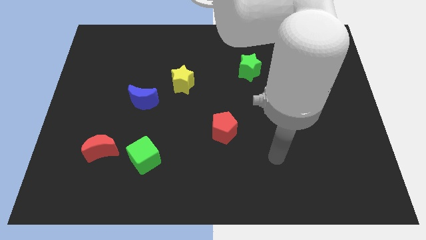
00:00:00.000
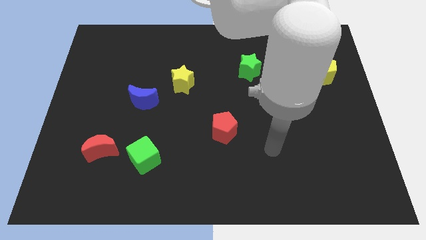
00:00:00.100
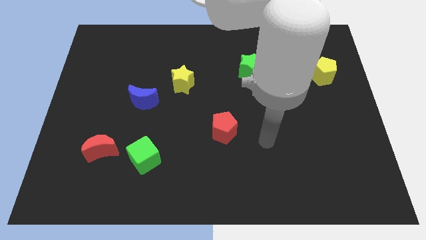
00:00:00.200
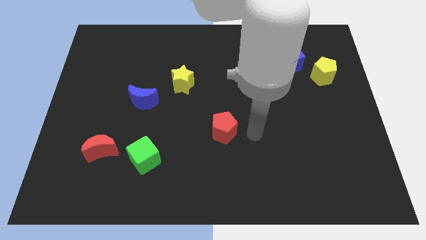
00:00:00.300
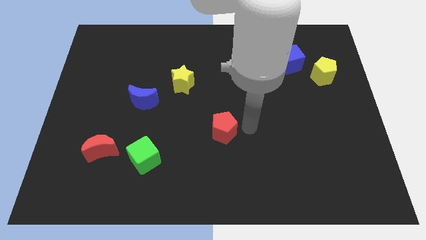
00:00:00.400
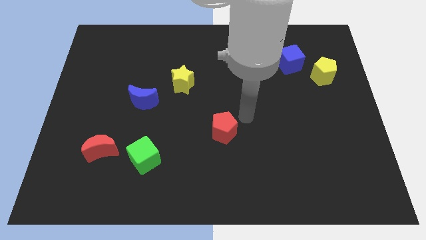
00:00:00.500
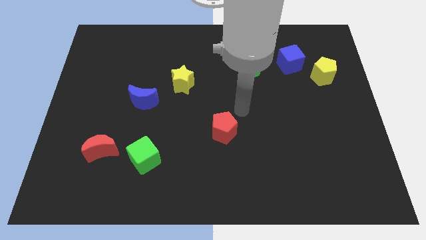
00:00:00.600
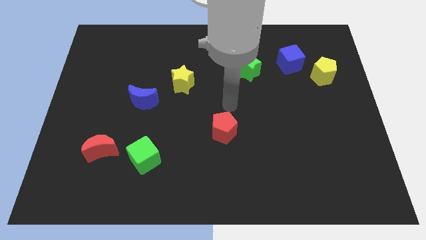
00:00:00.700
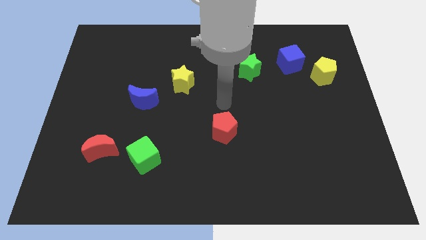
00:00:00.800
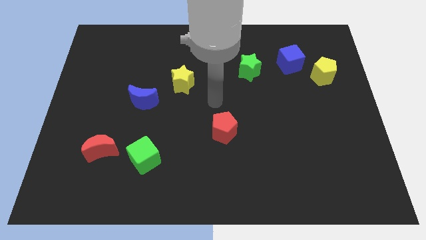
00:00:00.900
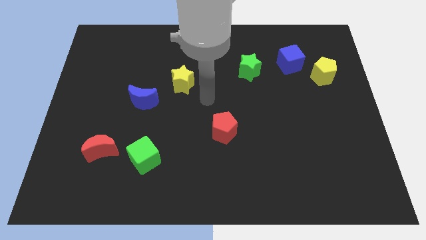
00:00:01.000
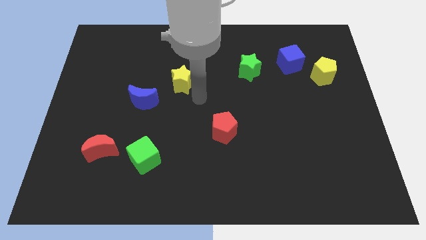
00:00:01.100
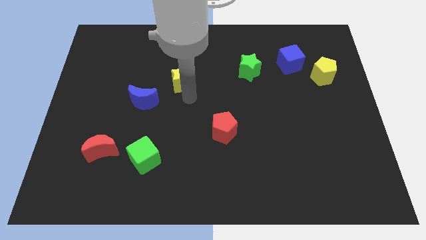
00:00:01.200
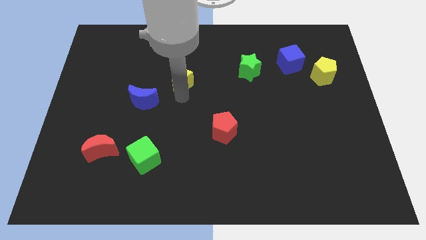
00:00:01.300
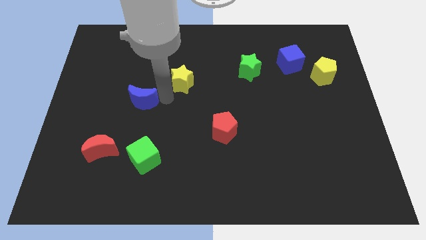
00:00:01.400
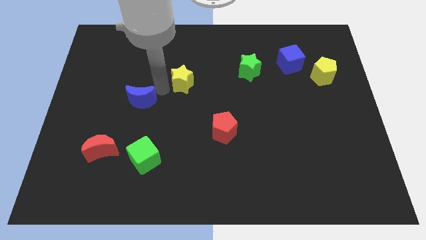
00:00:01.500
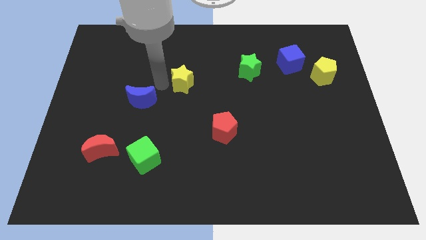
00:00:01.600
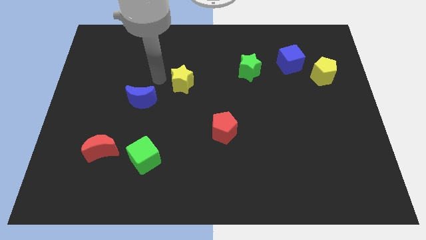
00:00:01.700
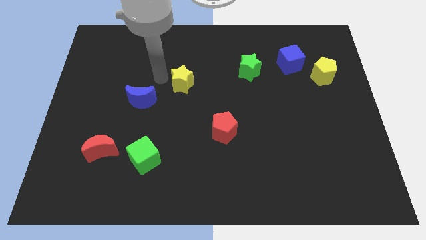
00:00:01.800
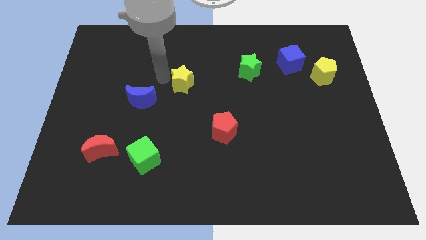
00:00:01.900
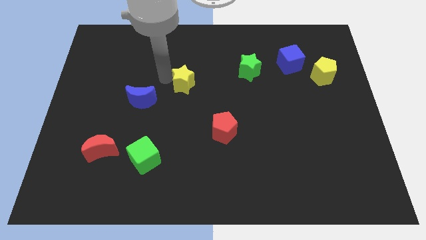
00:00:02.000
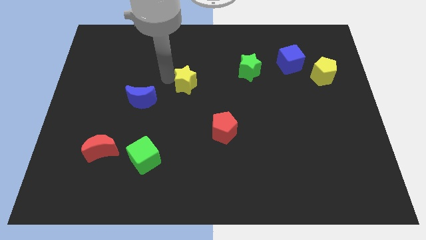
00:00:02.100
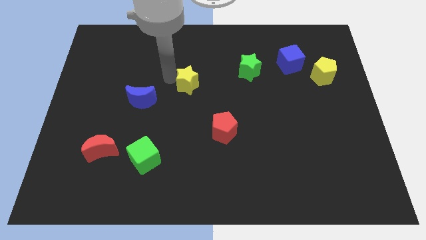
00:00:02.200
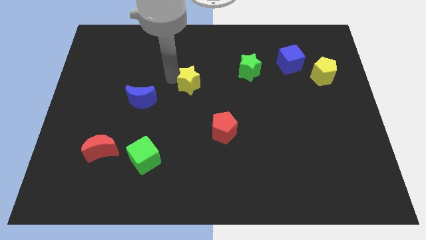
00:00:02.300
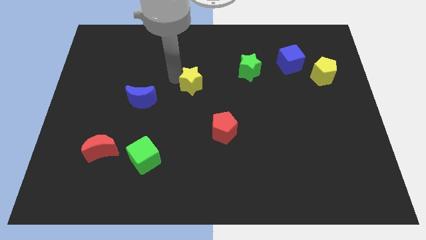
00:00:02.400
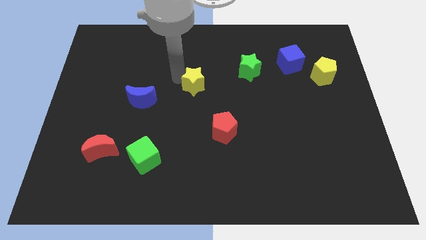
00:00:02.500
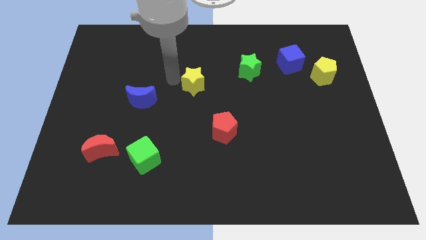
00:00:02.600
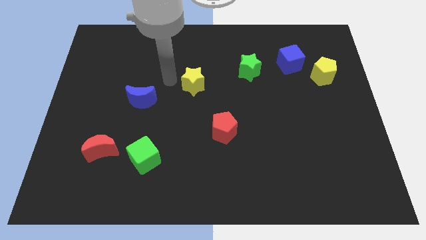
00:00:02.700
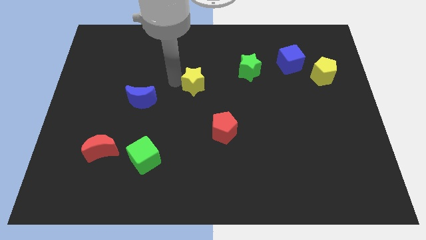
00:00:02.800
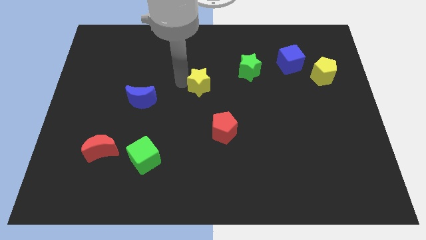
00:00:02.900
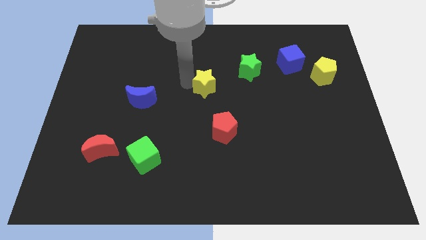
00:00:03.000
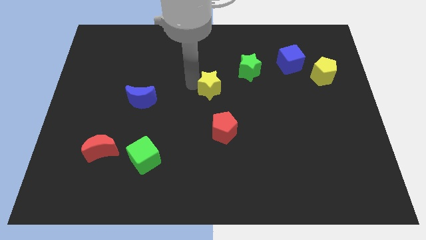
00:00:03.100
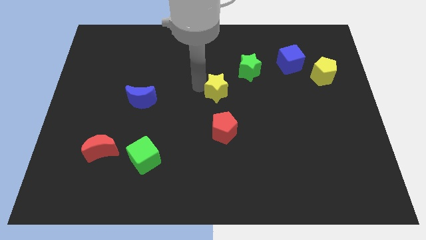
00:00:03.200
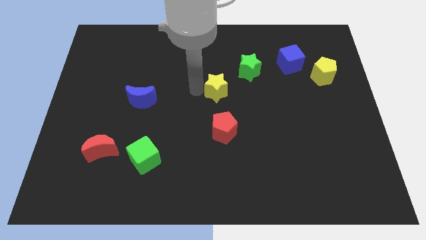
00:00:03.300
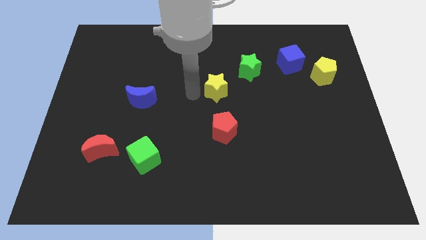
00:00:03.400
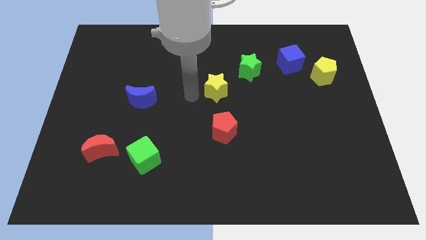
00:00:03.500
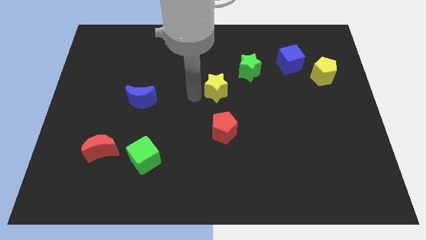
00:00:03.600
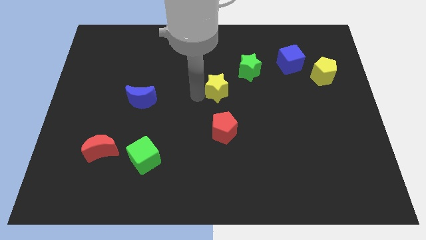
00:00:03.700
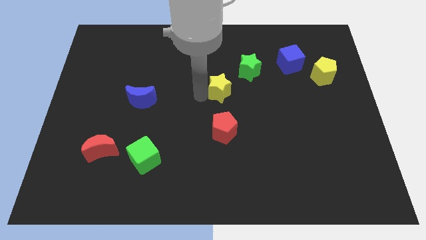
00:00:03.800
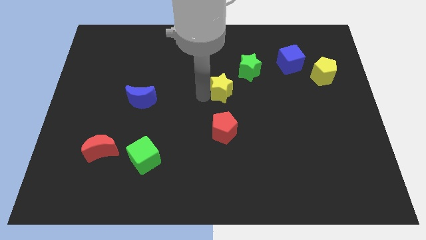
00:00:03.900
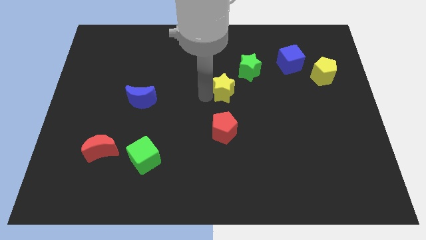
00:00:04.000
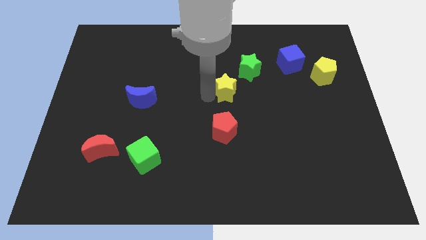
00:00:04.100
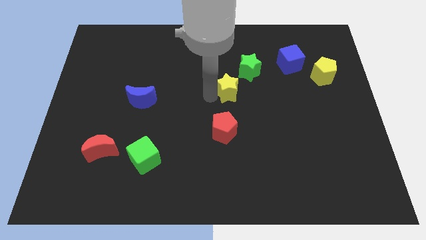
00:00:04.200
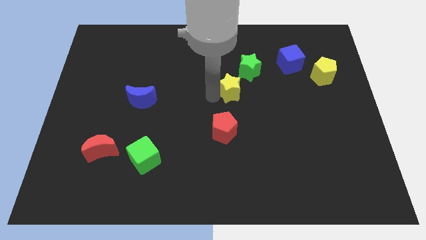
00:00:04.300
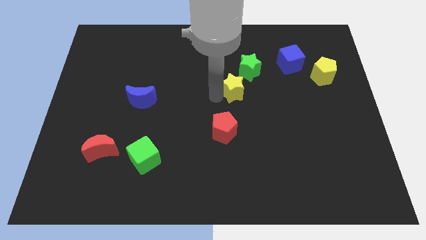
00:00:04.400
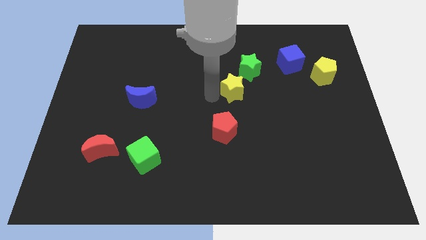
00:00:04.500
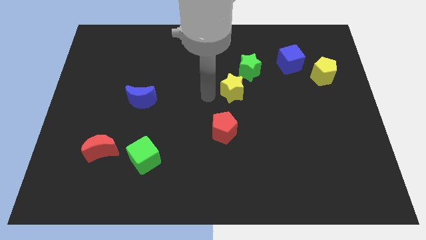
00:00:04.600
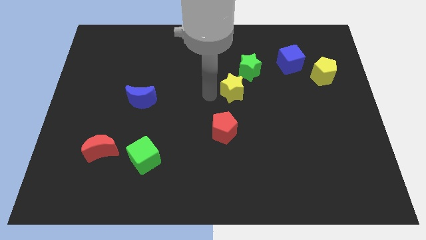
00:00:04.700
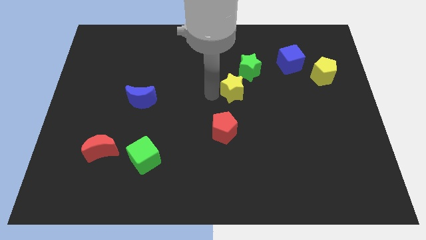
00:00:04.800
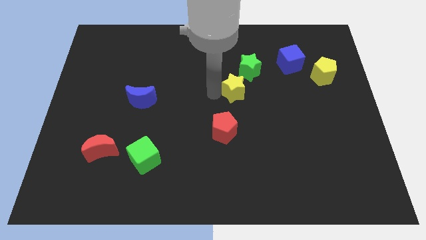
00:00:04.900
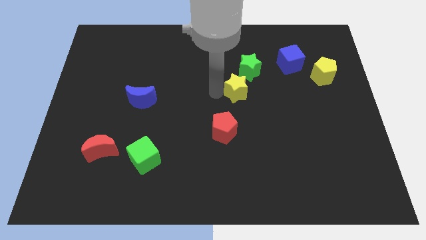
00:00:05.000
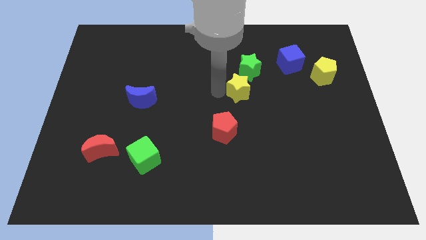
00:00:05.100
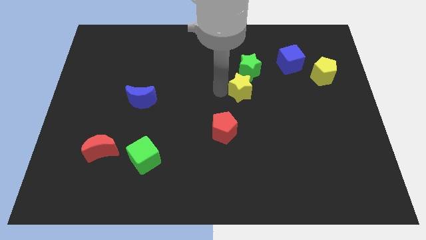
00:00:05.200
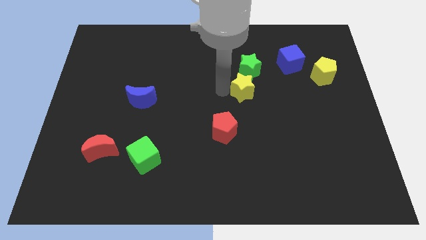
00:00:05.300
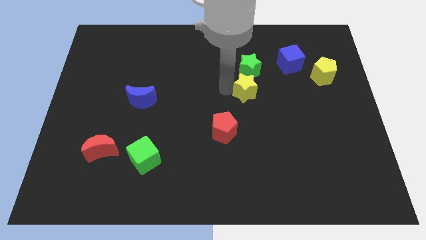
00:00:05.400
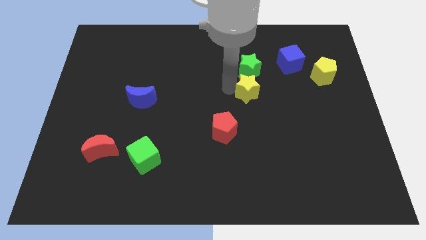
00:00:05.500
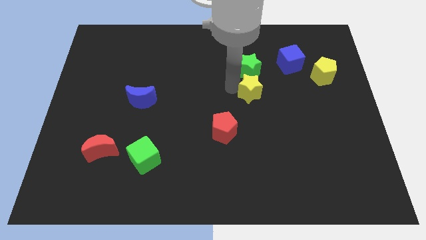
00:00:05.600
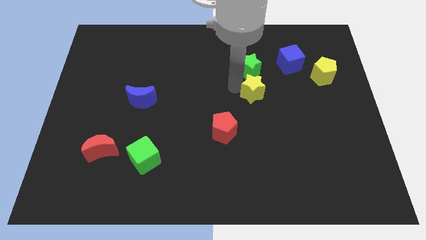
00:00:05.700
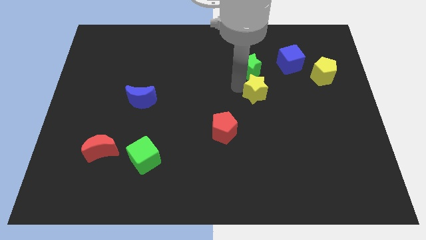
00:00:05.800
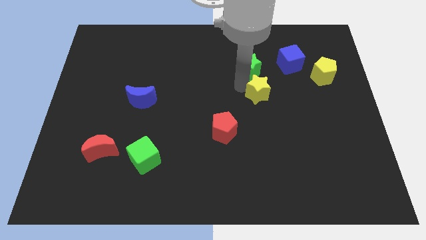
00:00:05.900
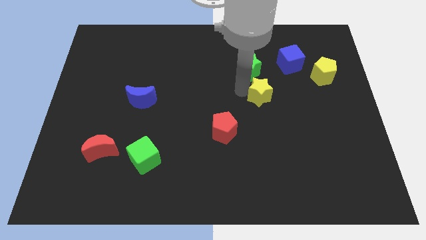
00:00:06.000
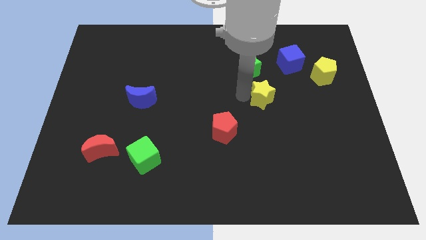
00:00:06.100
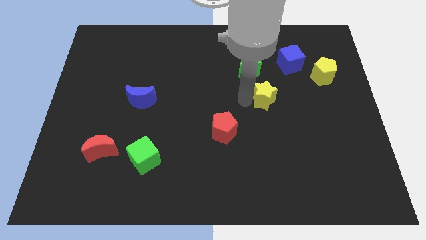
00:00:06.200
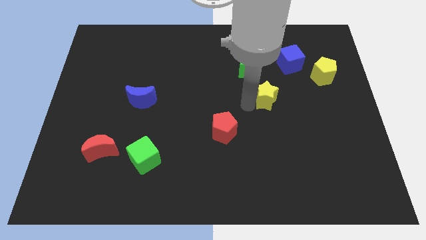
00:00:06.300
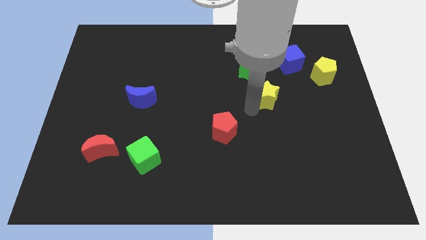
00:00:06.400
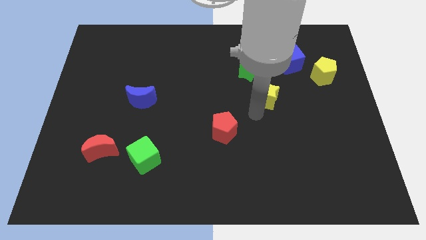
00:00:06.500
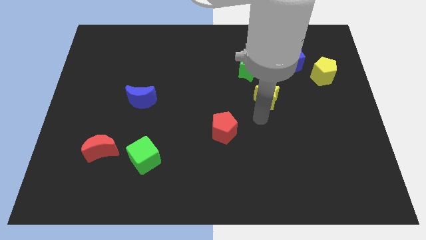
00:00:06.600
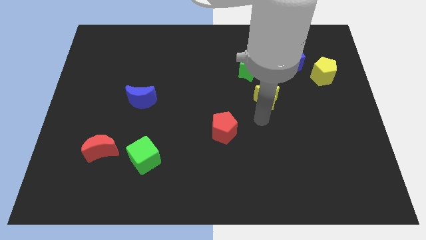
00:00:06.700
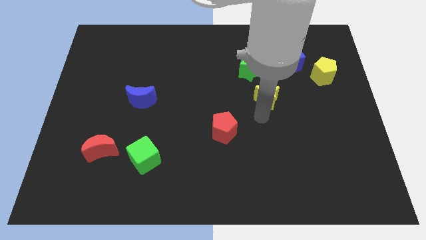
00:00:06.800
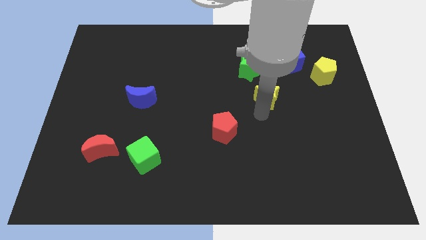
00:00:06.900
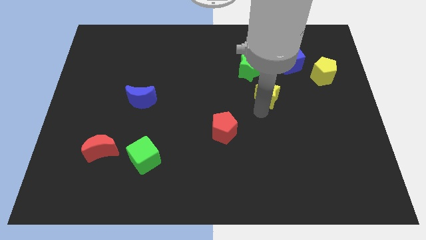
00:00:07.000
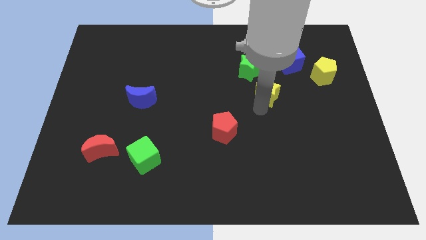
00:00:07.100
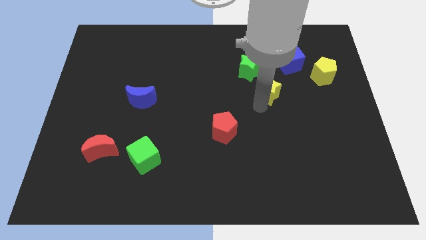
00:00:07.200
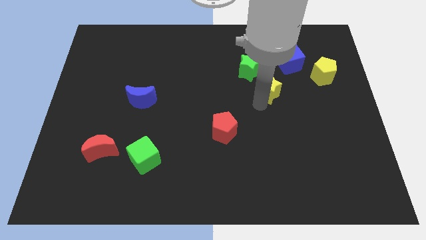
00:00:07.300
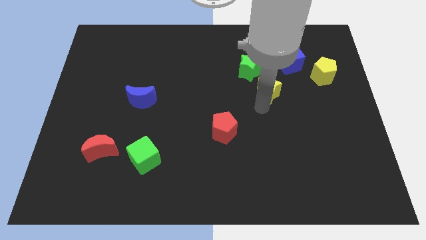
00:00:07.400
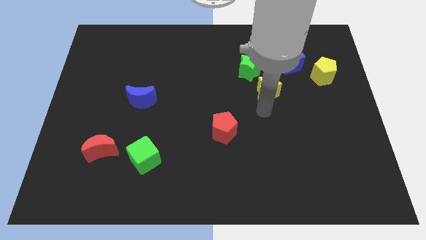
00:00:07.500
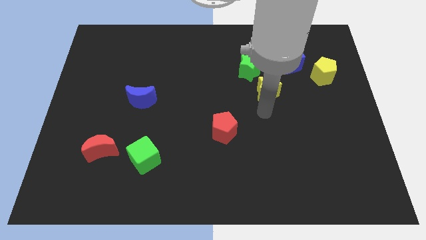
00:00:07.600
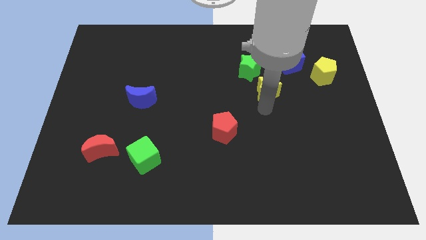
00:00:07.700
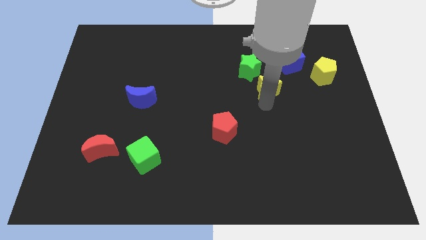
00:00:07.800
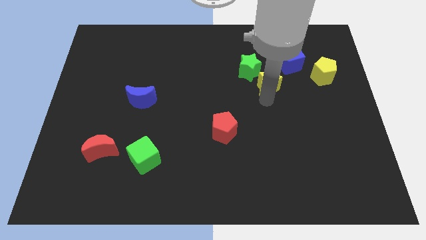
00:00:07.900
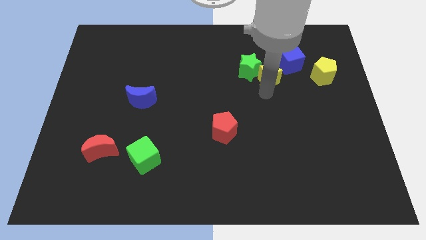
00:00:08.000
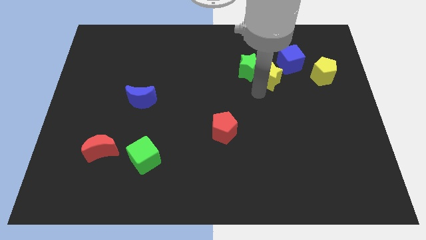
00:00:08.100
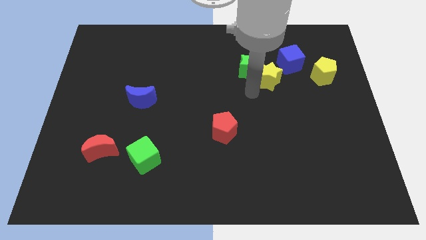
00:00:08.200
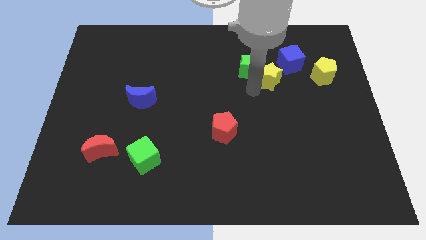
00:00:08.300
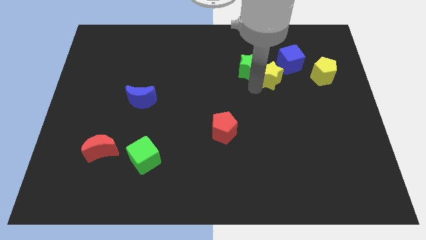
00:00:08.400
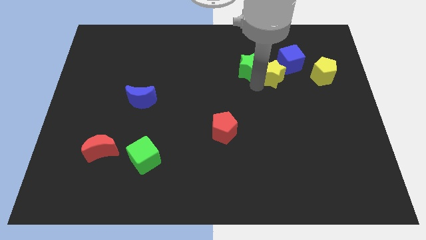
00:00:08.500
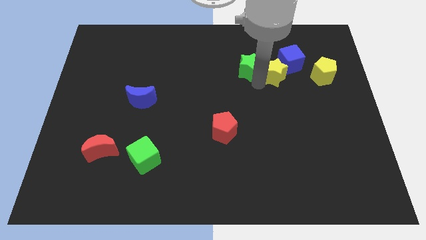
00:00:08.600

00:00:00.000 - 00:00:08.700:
put the yellow star close to the blue cube
